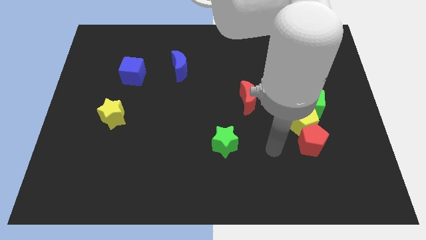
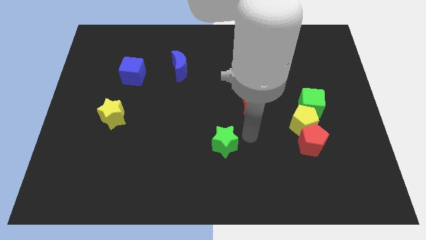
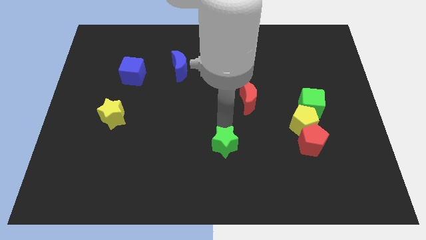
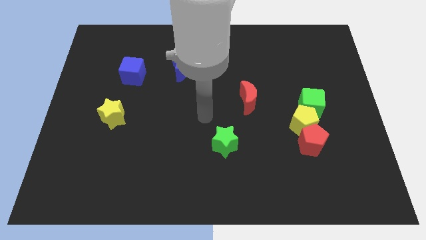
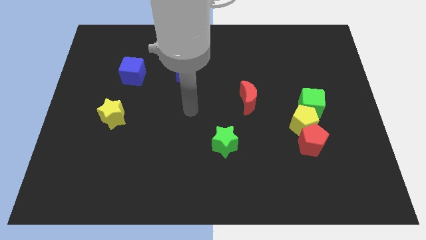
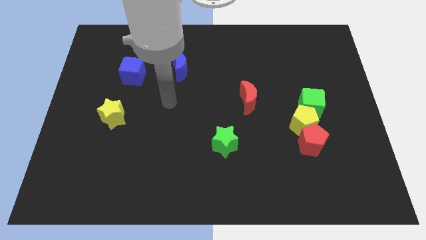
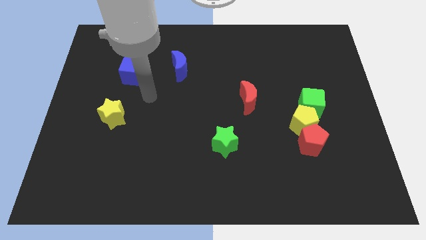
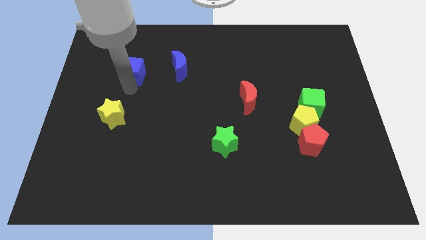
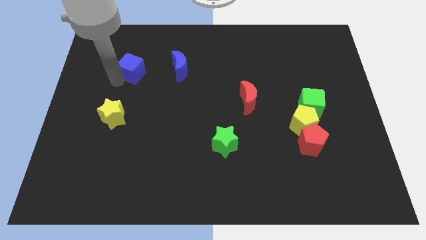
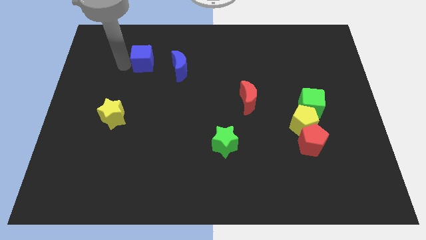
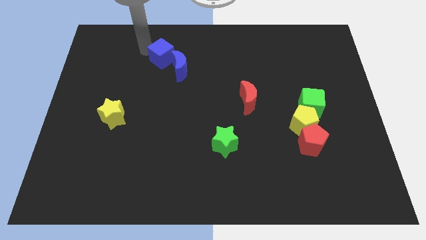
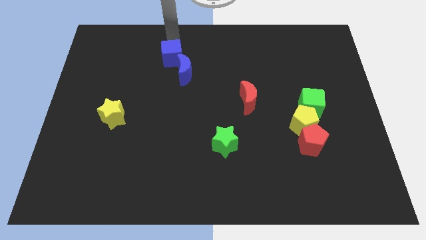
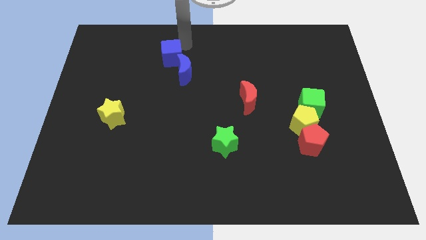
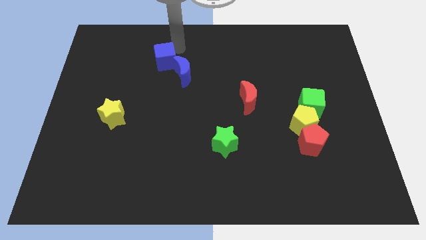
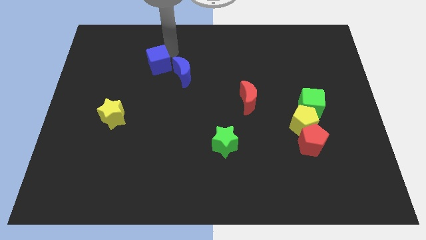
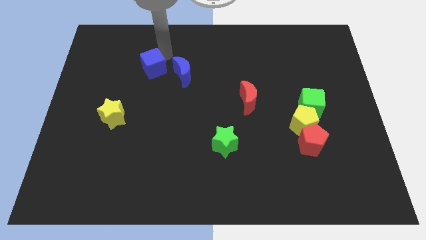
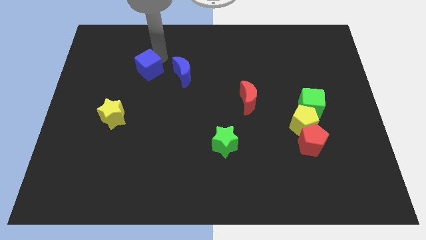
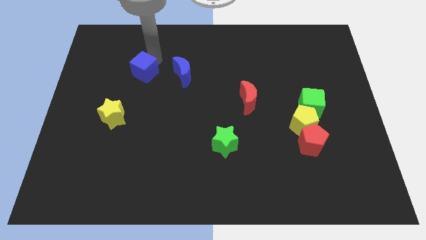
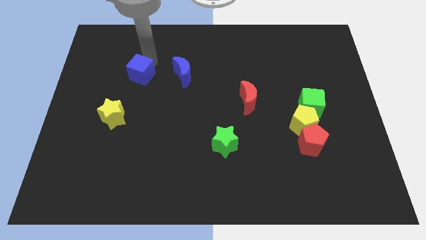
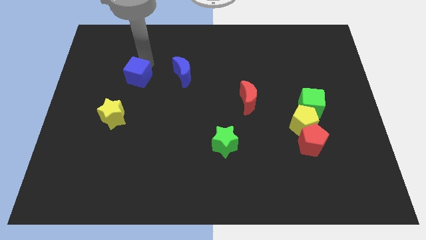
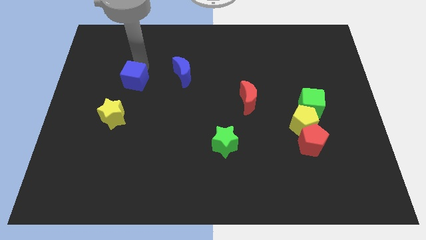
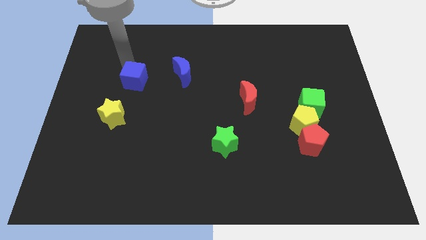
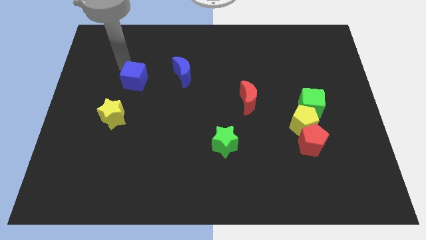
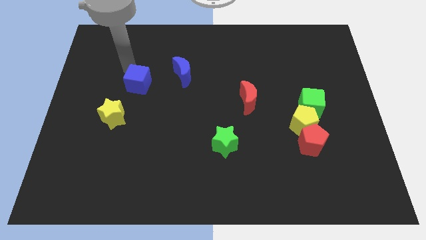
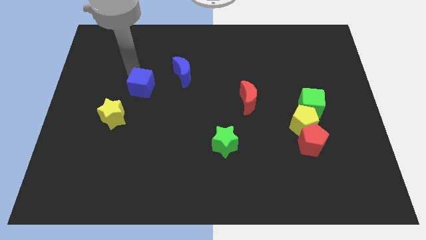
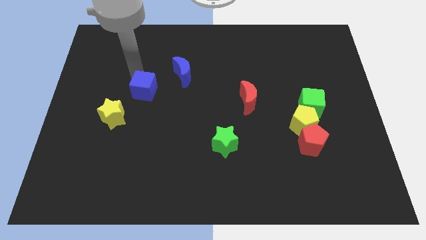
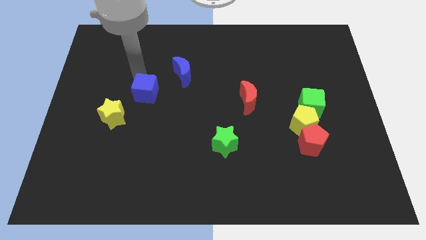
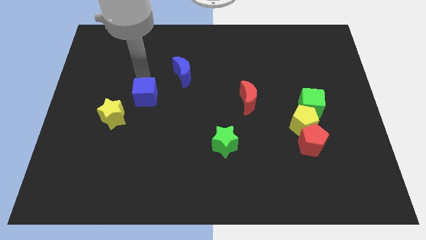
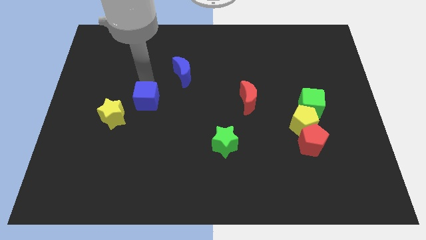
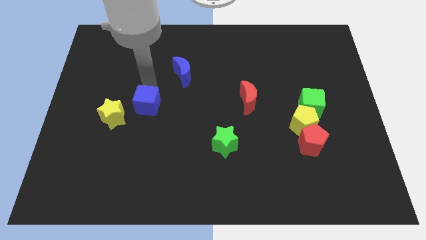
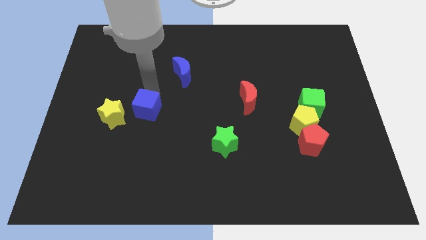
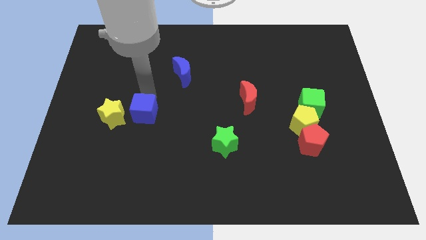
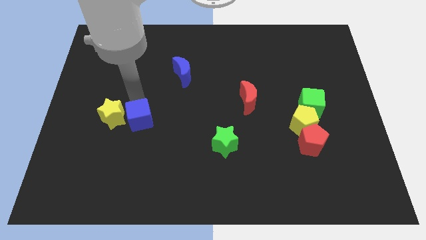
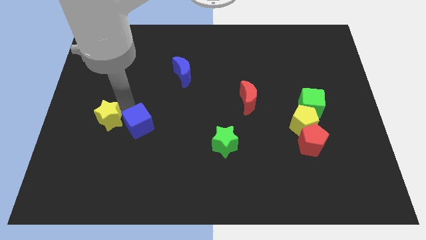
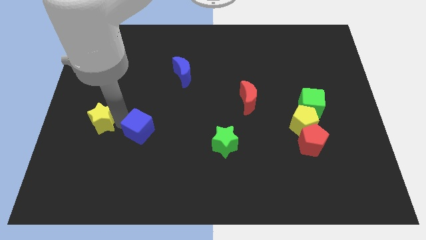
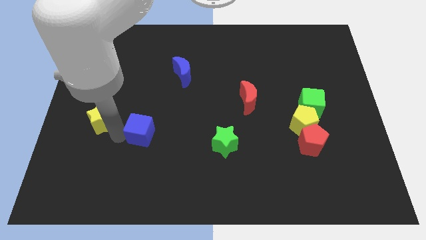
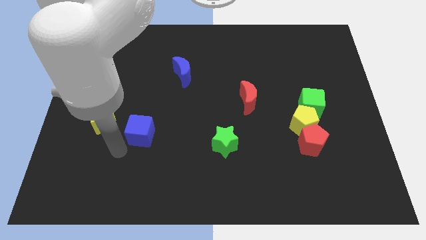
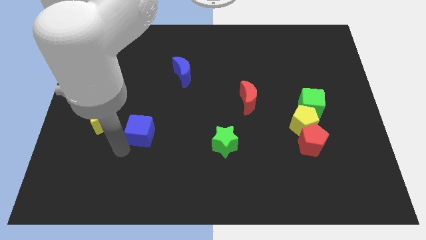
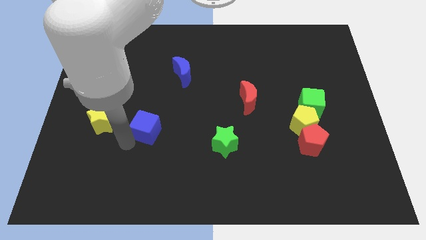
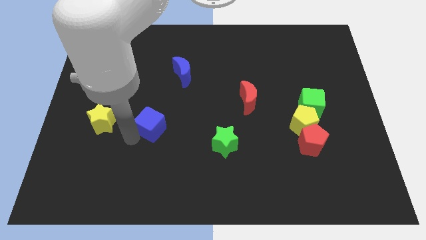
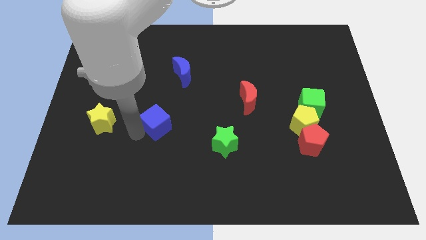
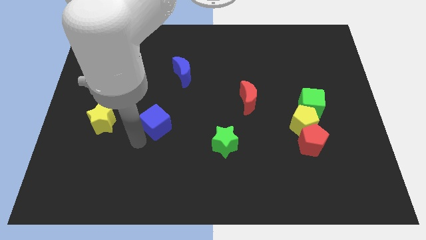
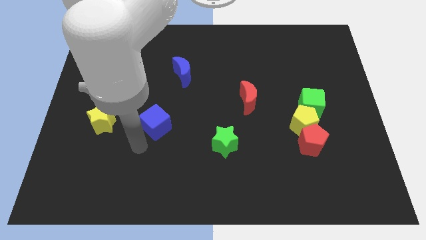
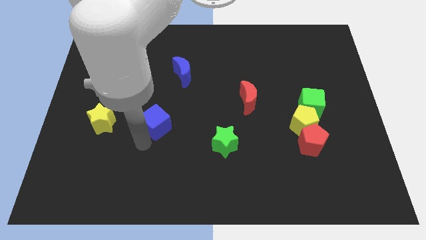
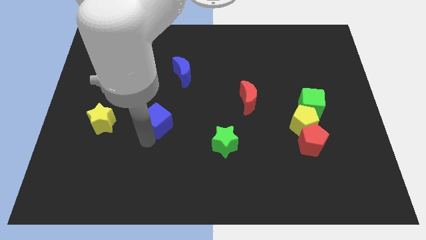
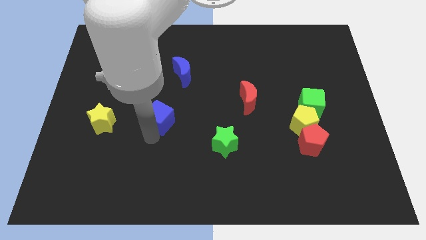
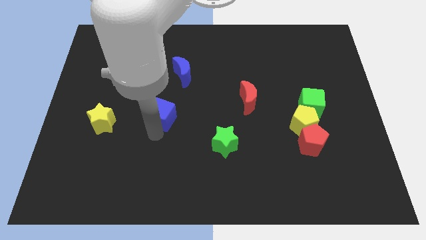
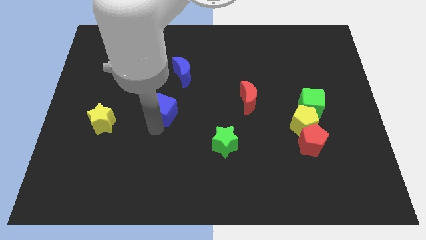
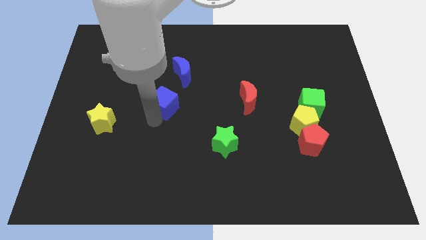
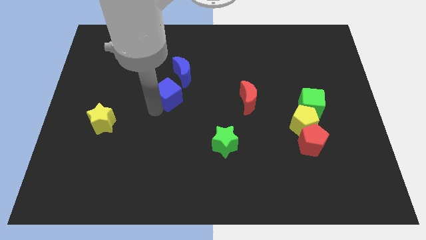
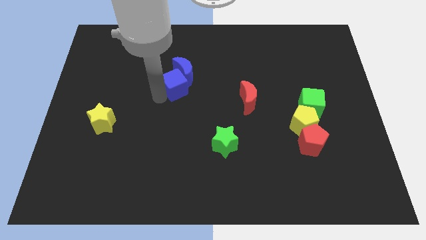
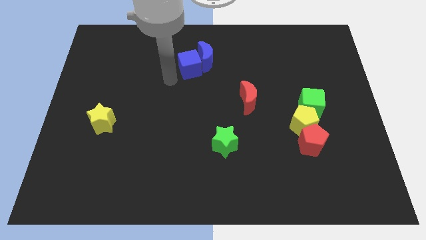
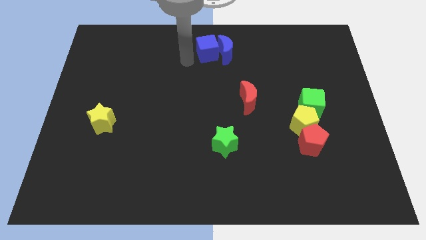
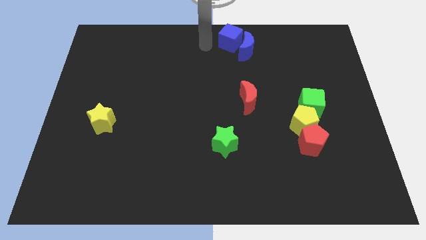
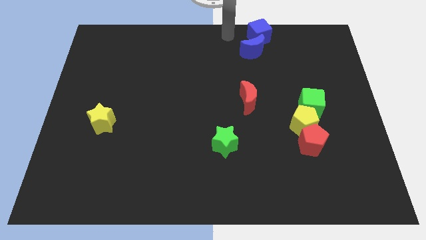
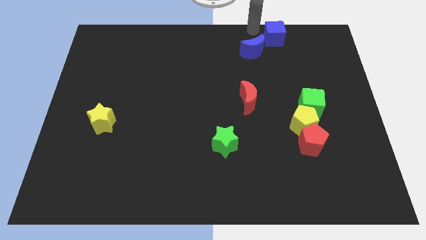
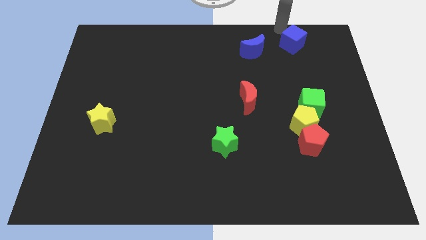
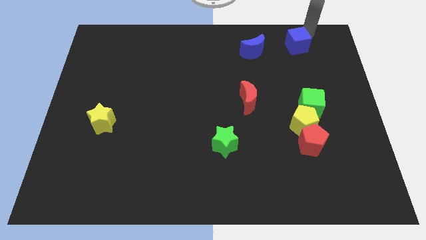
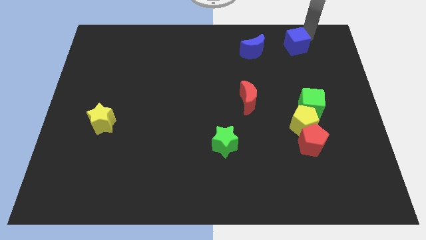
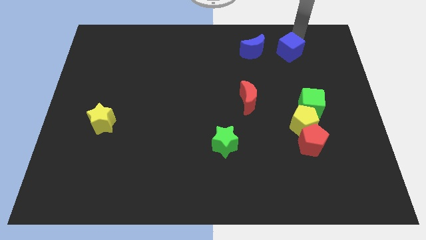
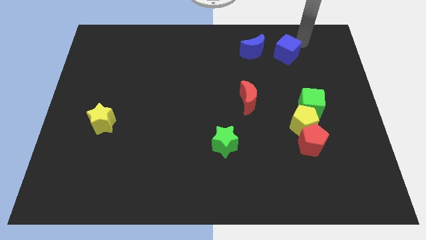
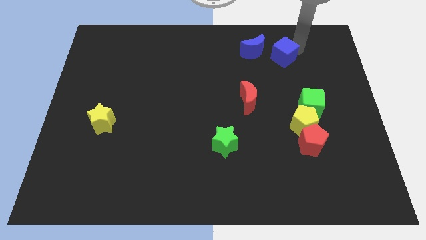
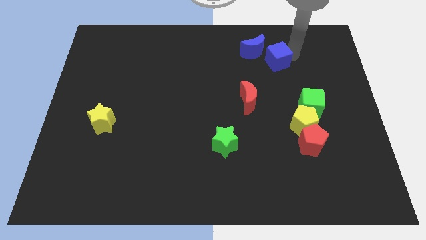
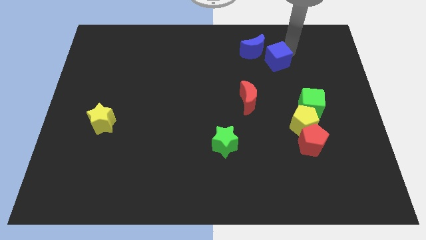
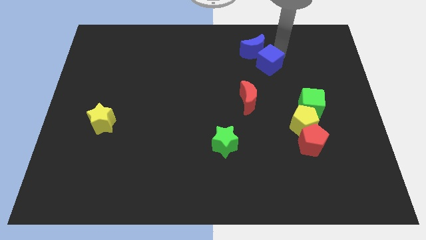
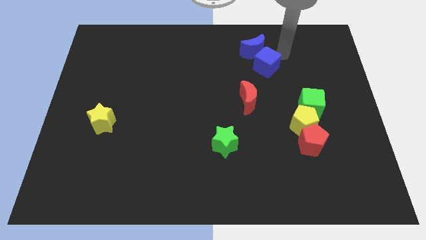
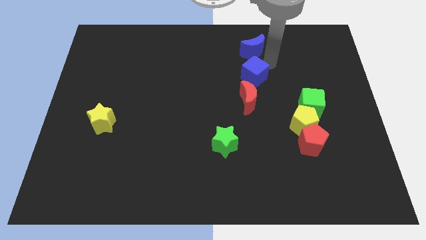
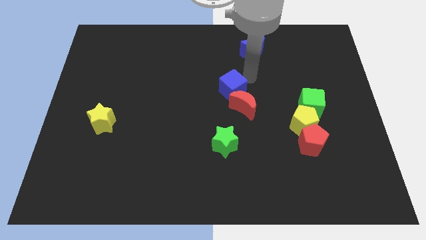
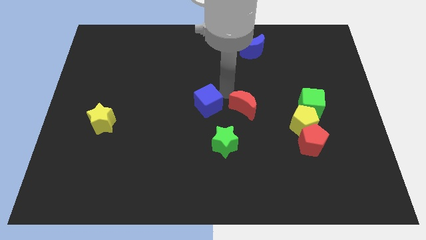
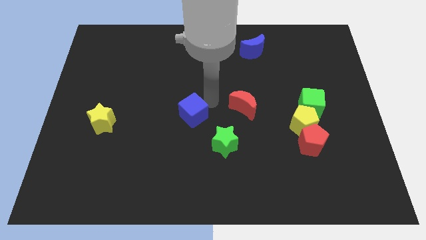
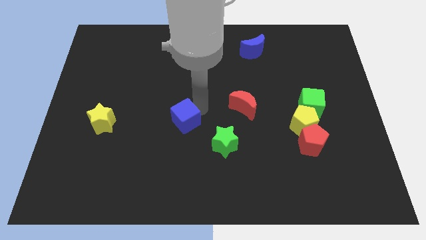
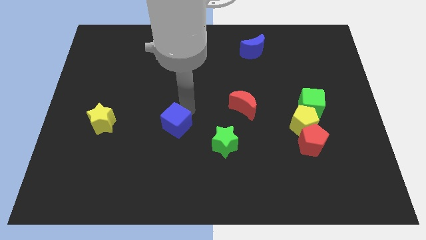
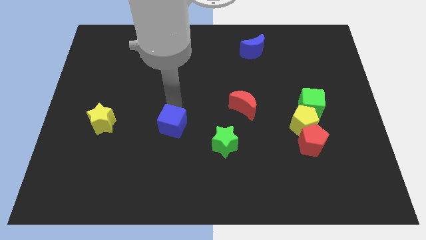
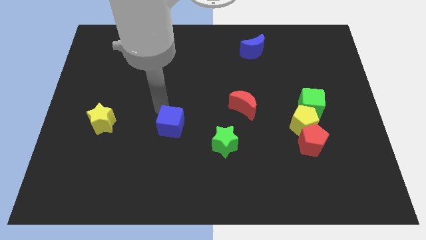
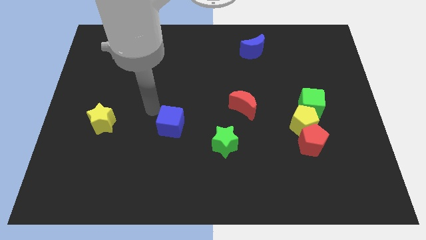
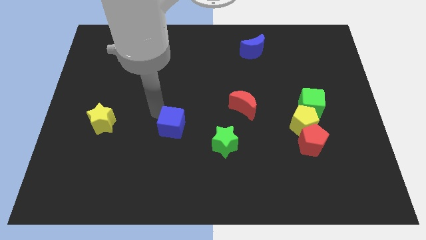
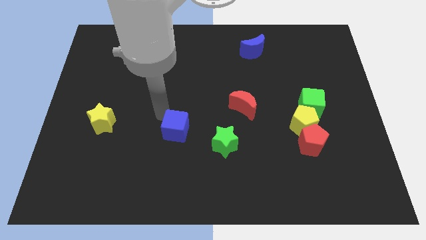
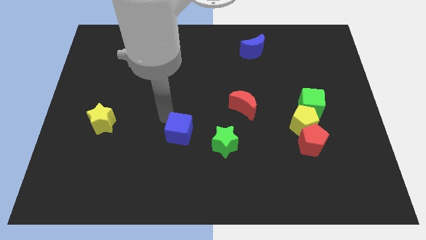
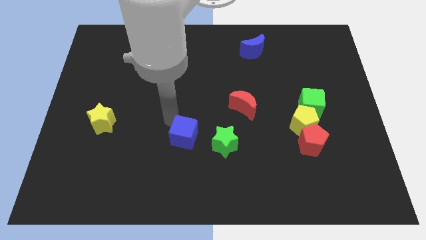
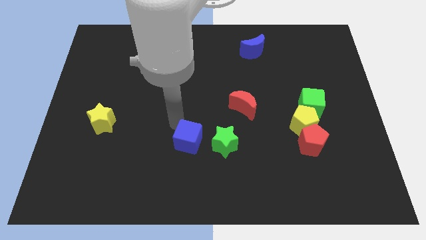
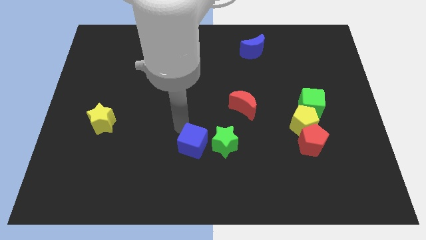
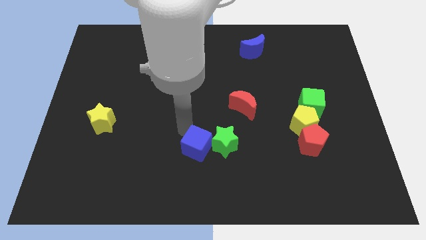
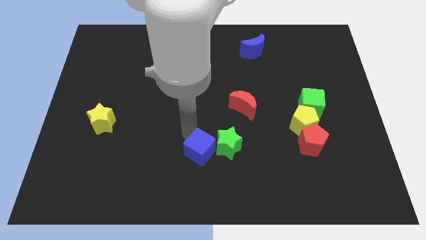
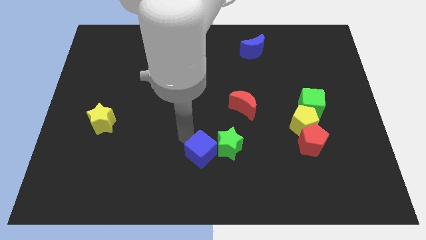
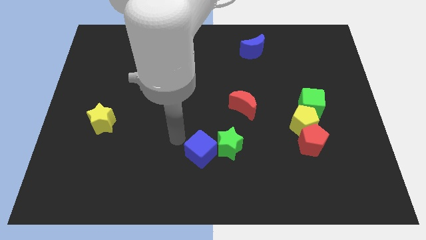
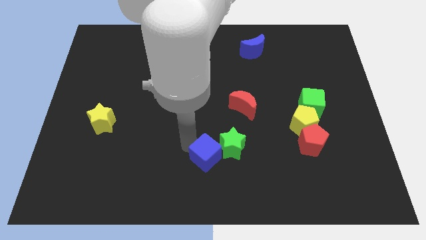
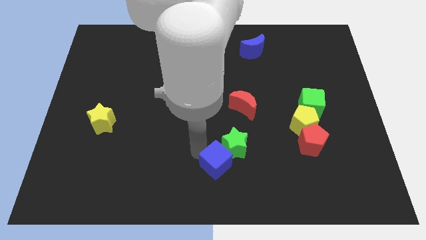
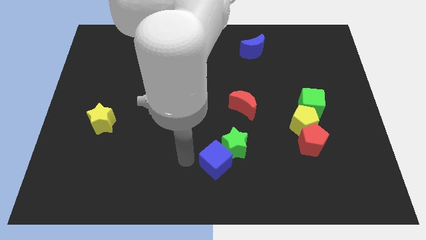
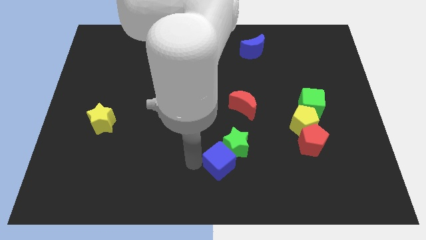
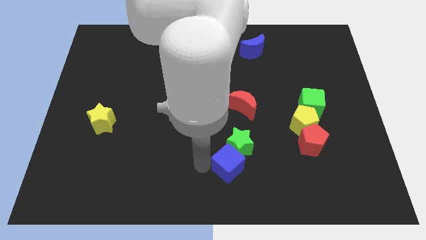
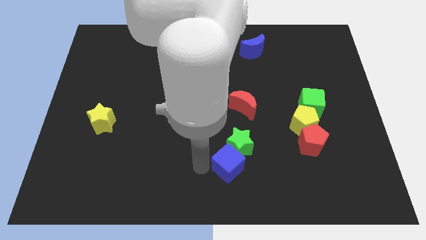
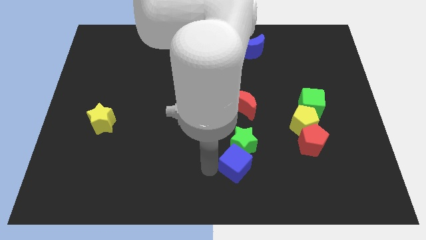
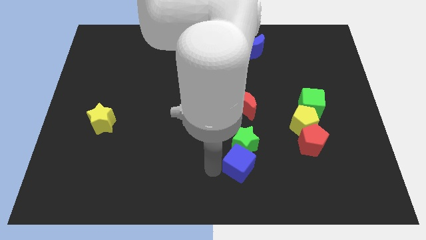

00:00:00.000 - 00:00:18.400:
put the blue cube diagonally down and to the right of the green star
